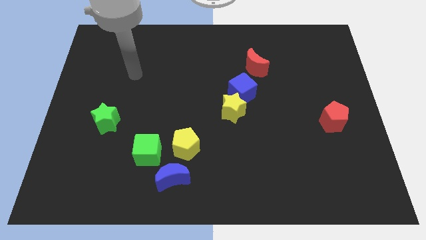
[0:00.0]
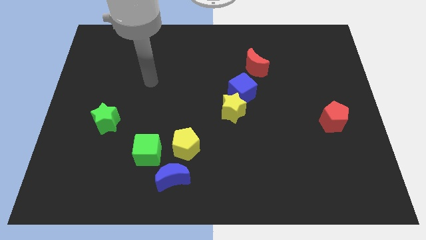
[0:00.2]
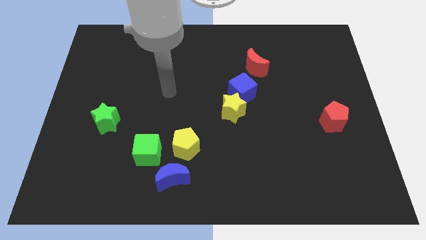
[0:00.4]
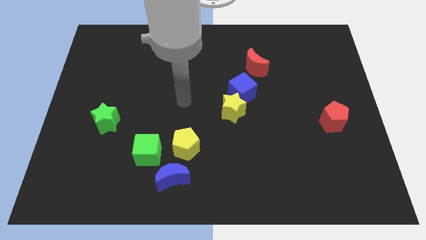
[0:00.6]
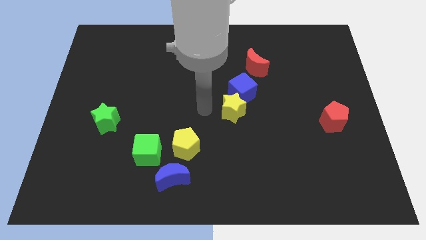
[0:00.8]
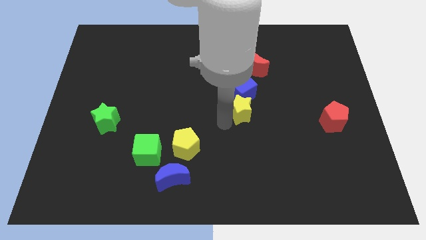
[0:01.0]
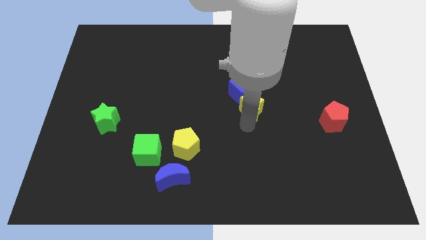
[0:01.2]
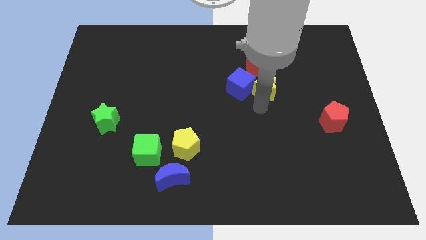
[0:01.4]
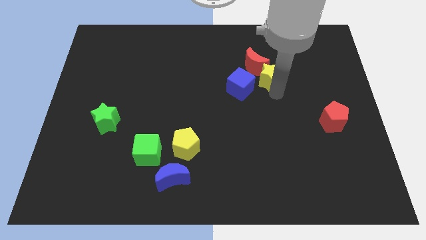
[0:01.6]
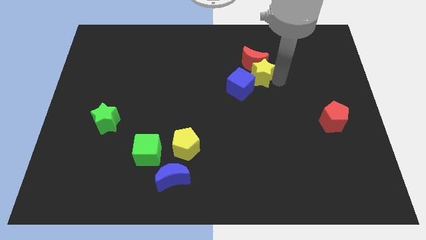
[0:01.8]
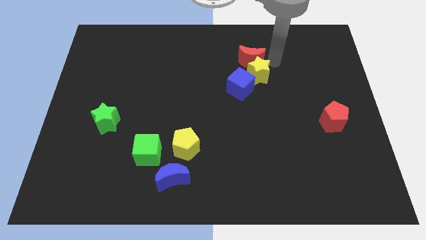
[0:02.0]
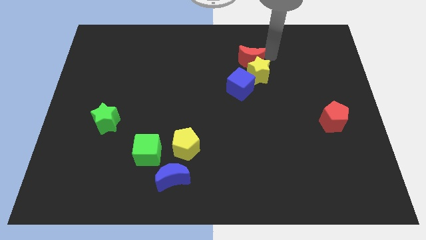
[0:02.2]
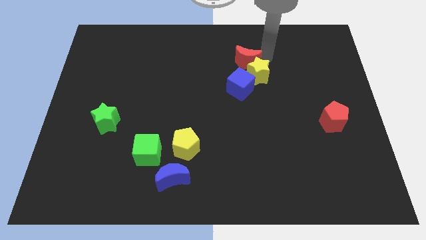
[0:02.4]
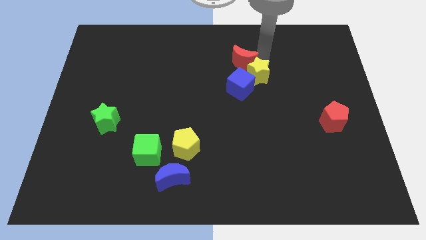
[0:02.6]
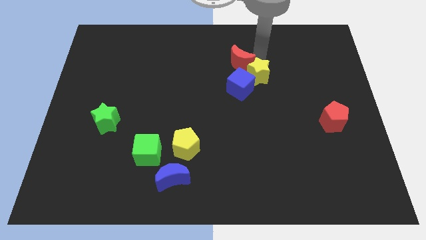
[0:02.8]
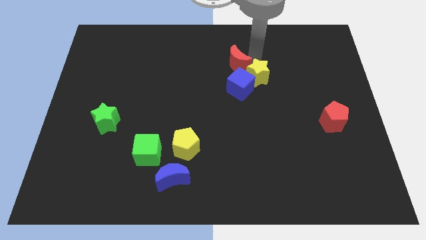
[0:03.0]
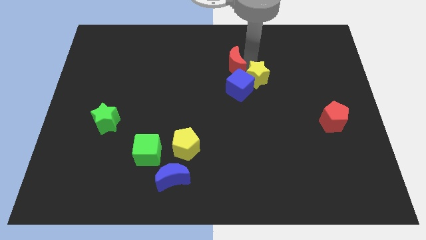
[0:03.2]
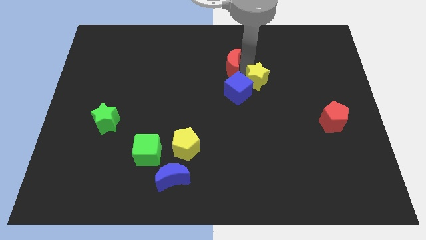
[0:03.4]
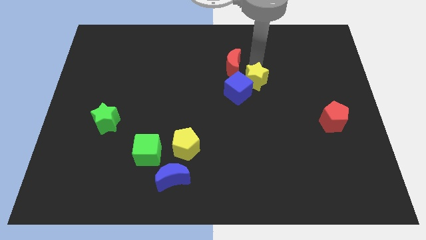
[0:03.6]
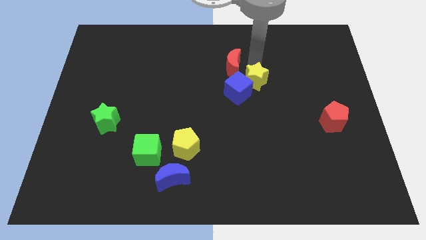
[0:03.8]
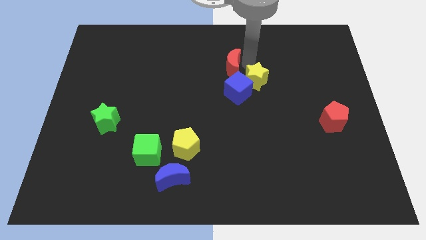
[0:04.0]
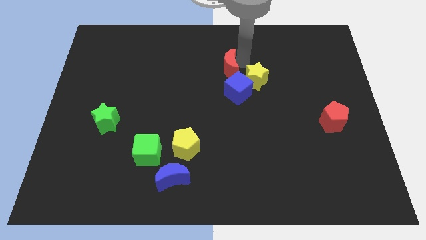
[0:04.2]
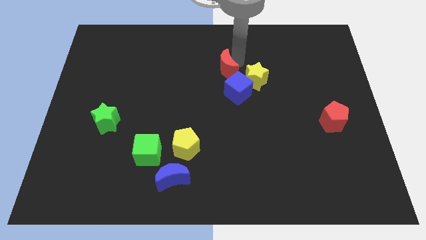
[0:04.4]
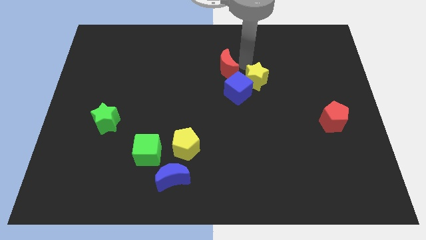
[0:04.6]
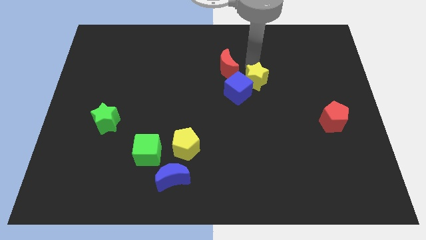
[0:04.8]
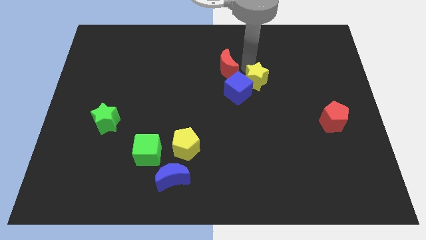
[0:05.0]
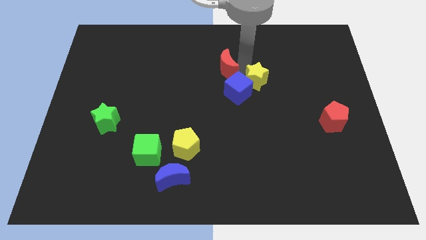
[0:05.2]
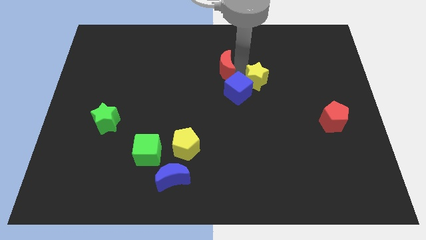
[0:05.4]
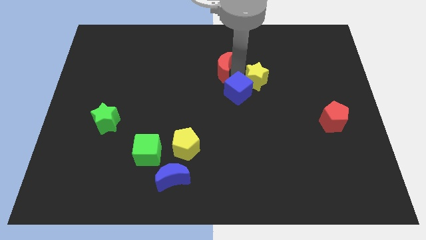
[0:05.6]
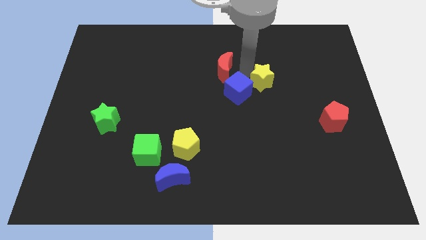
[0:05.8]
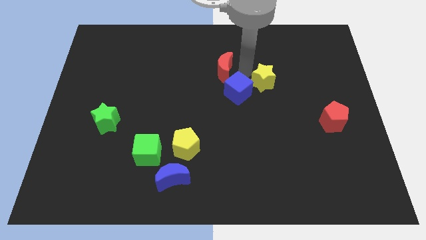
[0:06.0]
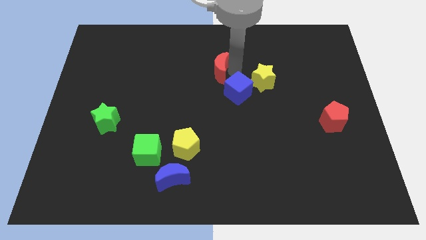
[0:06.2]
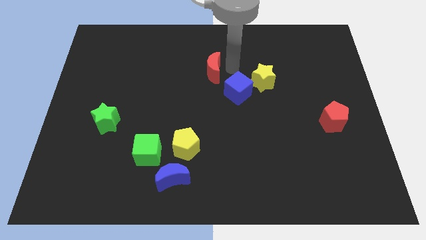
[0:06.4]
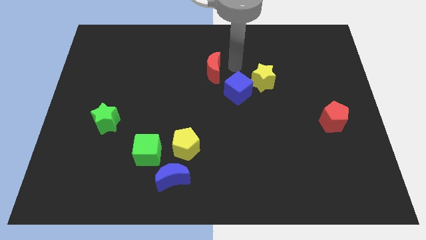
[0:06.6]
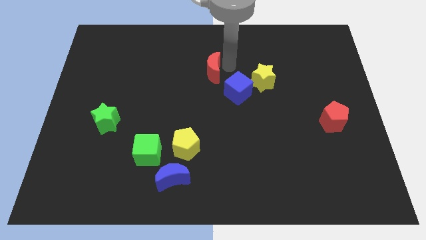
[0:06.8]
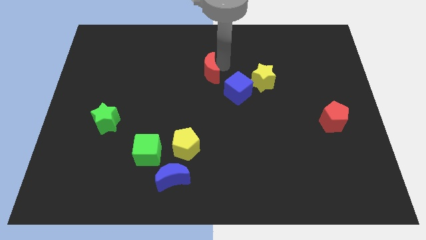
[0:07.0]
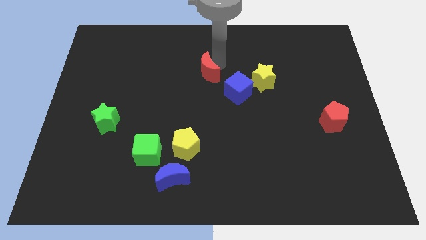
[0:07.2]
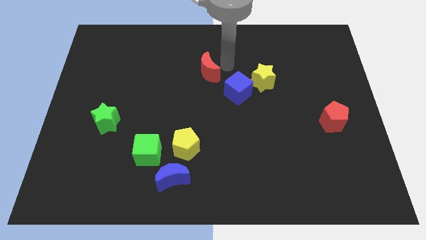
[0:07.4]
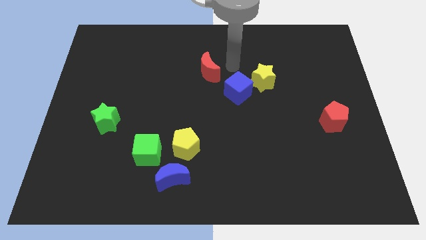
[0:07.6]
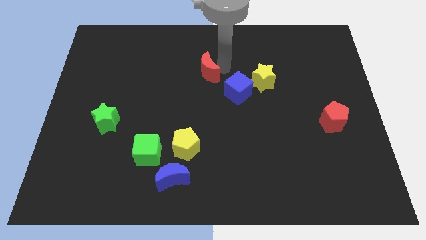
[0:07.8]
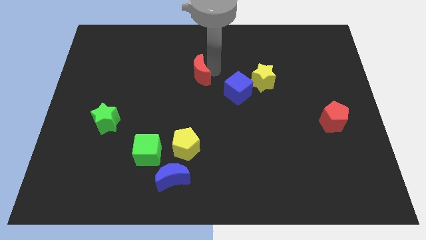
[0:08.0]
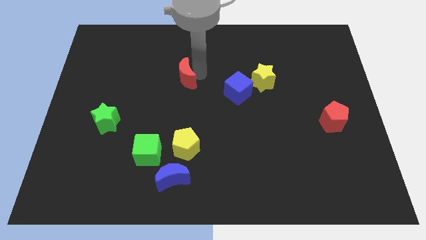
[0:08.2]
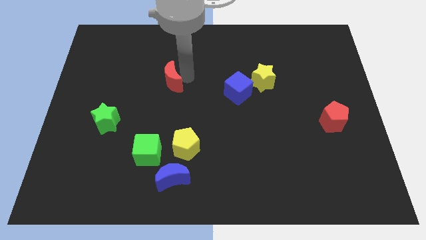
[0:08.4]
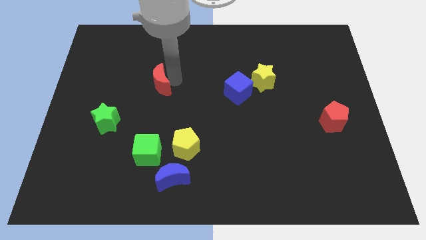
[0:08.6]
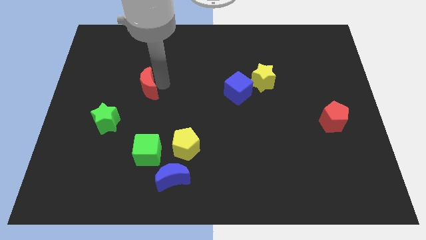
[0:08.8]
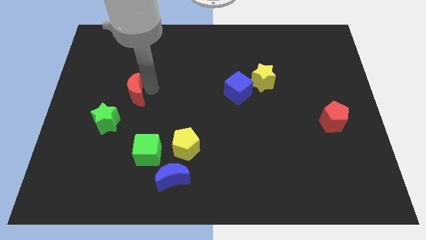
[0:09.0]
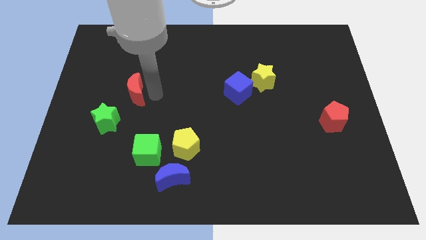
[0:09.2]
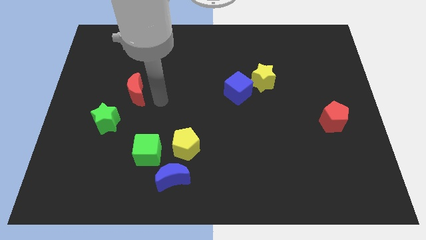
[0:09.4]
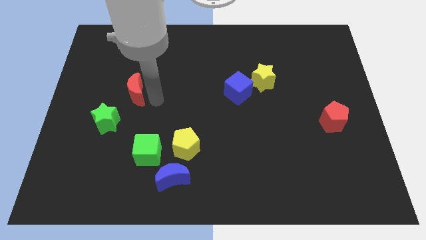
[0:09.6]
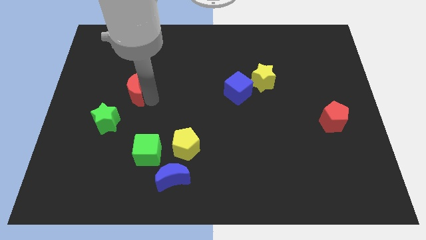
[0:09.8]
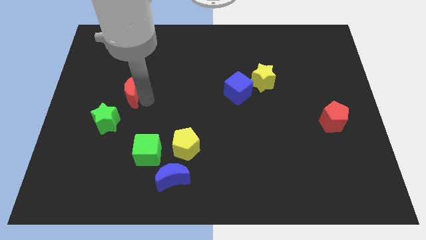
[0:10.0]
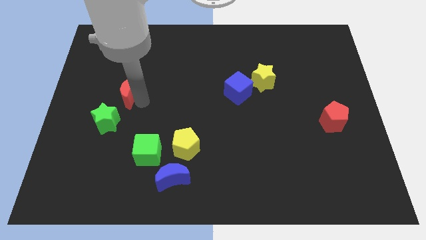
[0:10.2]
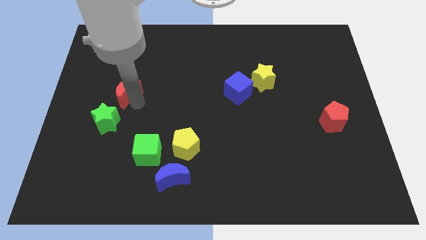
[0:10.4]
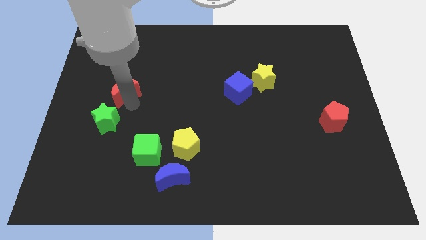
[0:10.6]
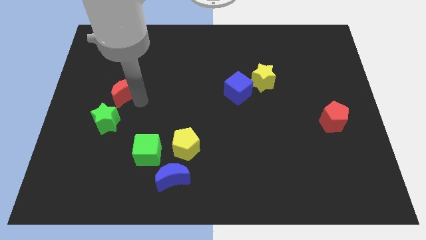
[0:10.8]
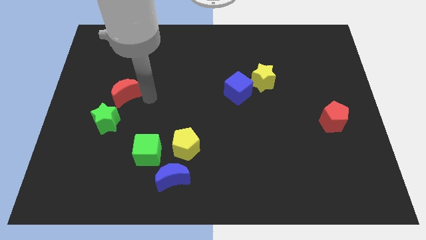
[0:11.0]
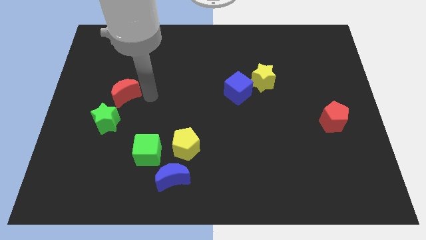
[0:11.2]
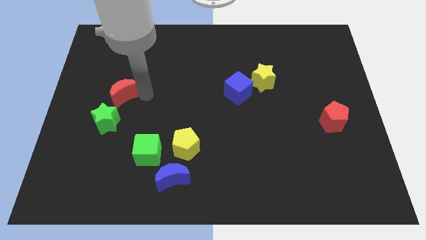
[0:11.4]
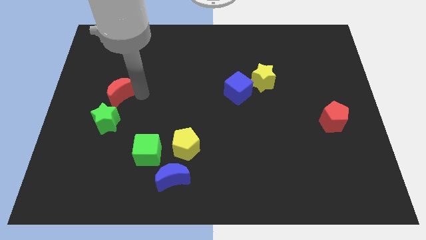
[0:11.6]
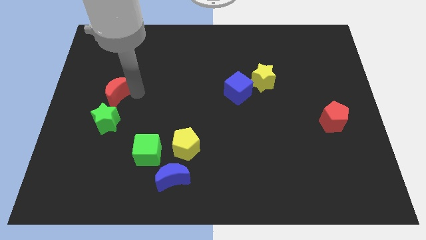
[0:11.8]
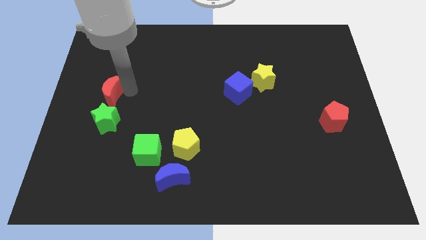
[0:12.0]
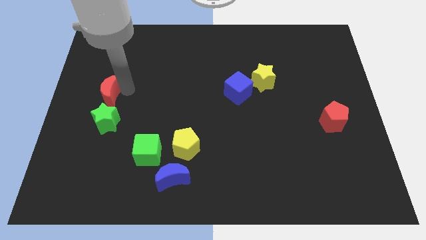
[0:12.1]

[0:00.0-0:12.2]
put the red moon to the left side of the board
